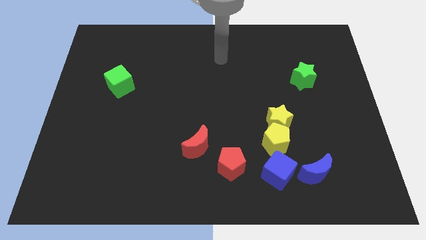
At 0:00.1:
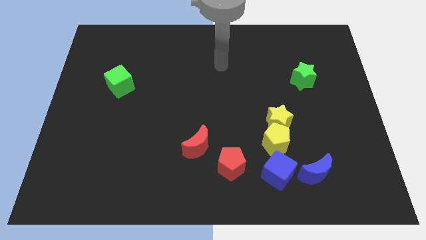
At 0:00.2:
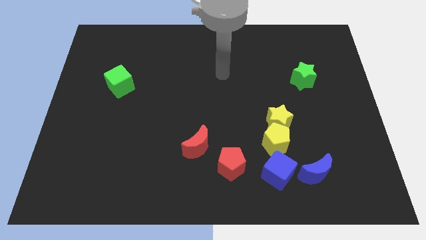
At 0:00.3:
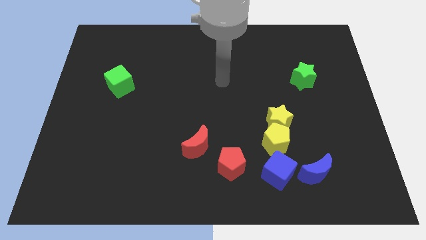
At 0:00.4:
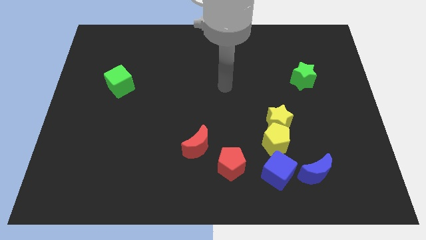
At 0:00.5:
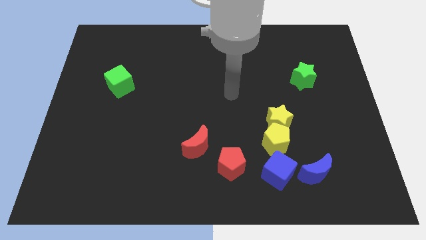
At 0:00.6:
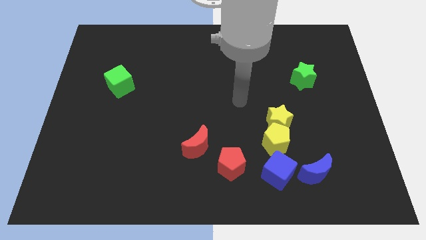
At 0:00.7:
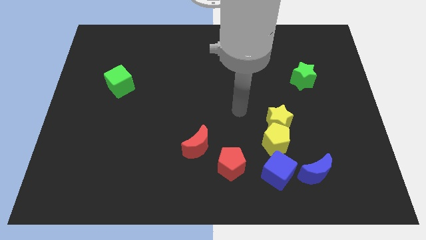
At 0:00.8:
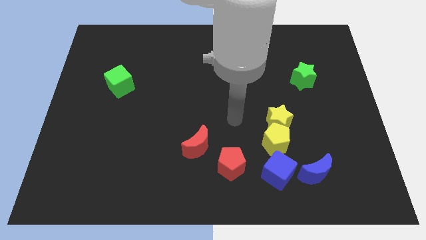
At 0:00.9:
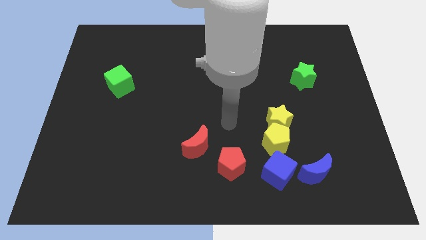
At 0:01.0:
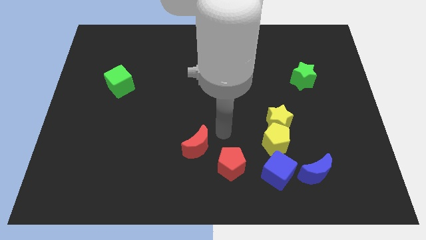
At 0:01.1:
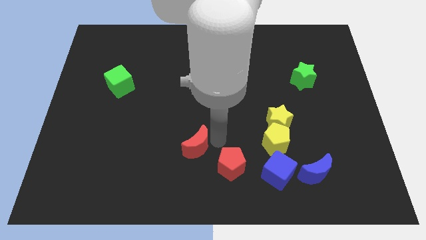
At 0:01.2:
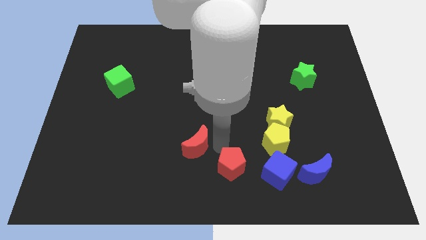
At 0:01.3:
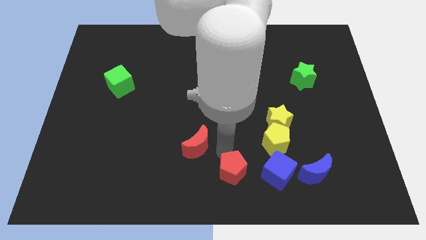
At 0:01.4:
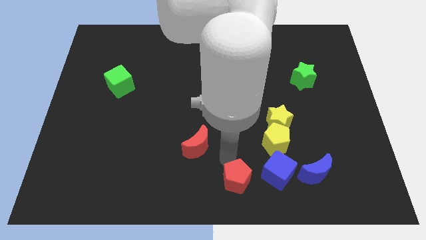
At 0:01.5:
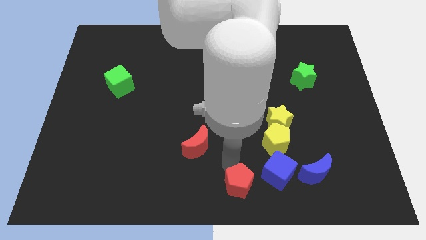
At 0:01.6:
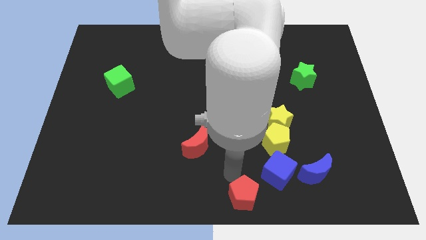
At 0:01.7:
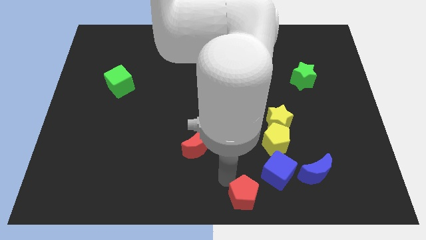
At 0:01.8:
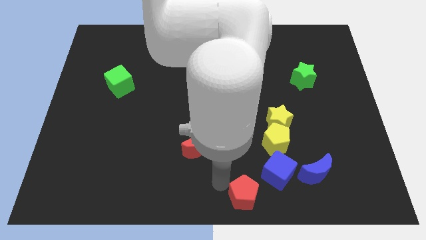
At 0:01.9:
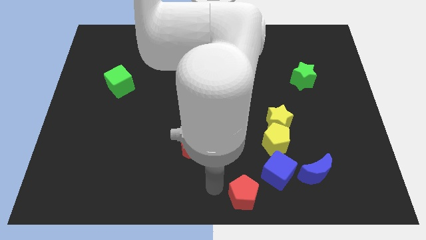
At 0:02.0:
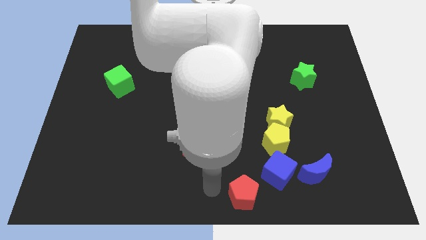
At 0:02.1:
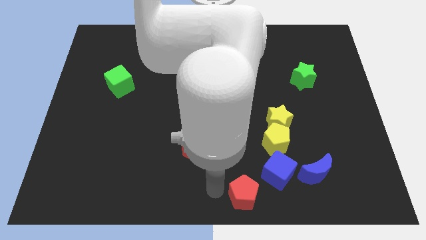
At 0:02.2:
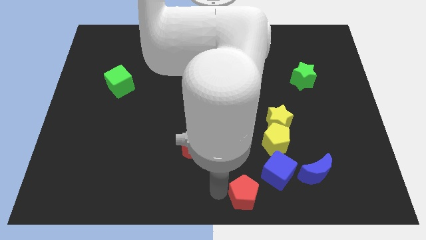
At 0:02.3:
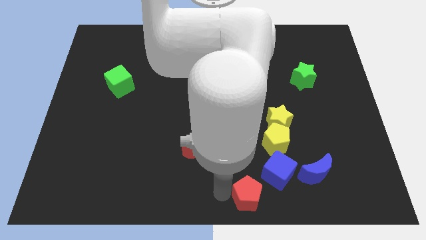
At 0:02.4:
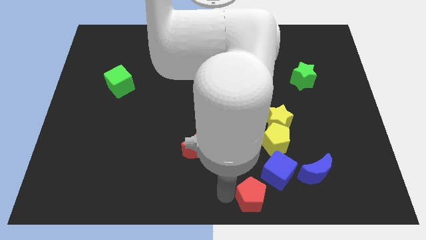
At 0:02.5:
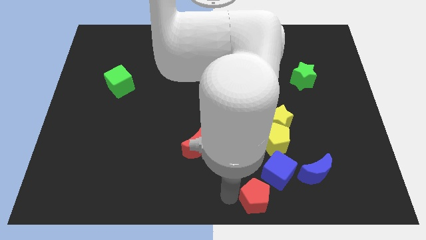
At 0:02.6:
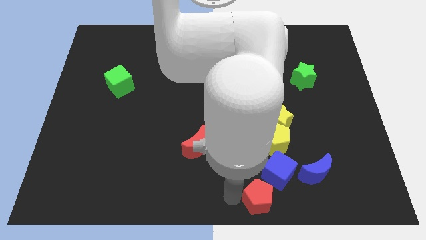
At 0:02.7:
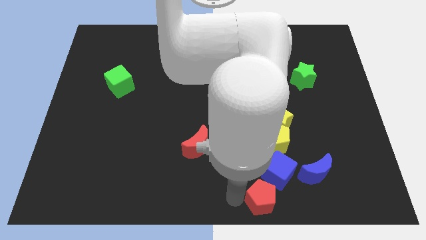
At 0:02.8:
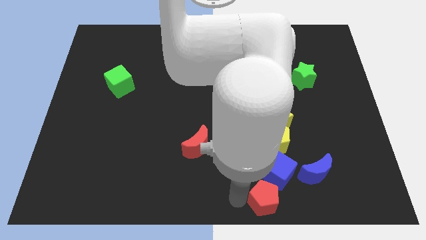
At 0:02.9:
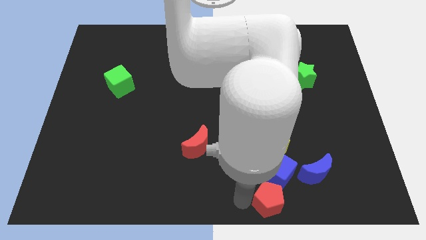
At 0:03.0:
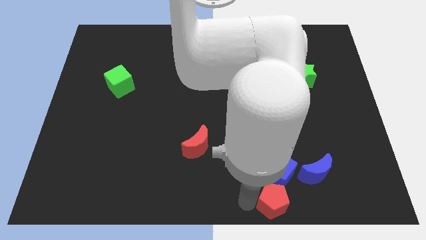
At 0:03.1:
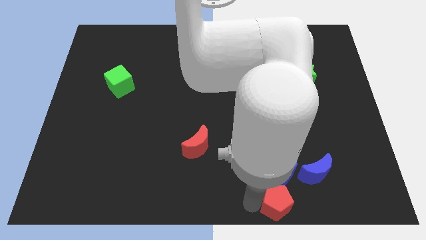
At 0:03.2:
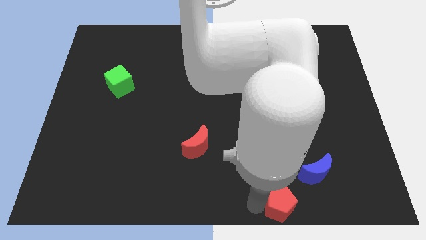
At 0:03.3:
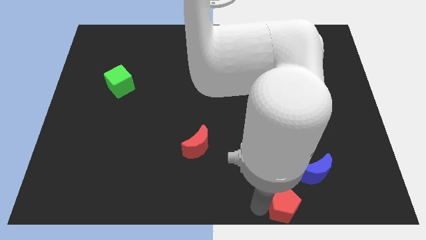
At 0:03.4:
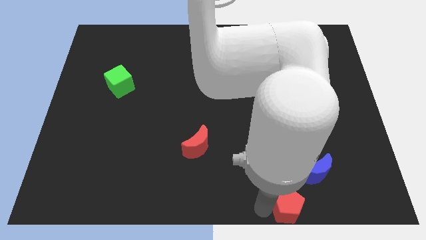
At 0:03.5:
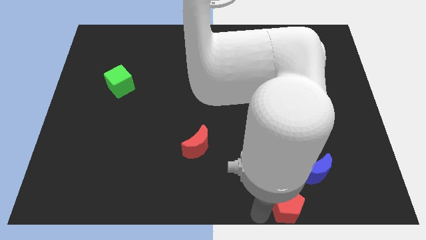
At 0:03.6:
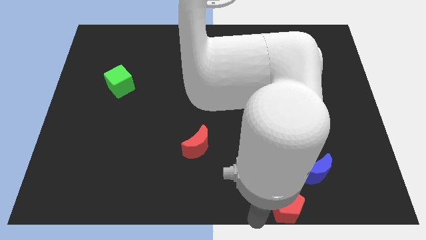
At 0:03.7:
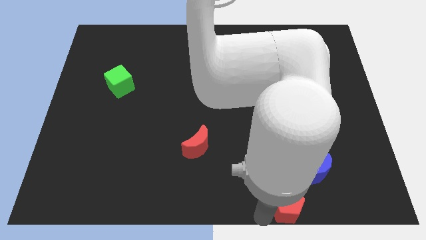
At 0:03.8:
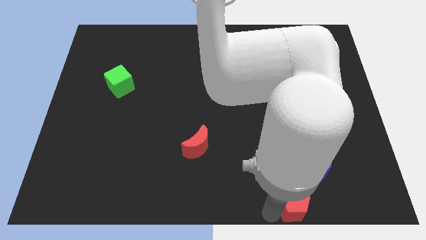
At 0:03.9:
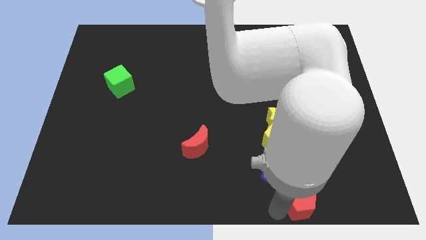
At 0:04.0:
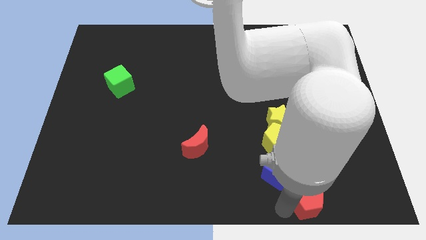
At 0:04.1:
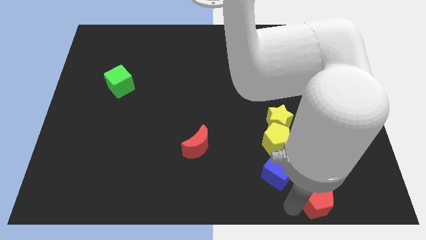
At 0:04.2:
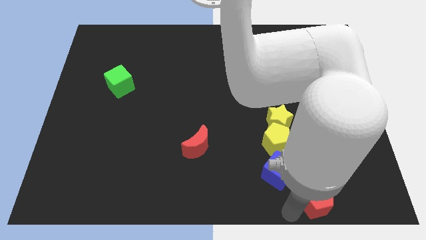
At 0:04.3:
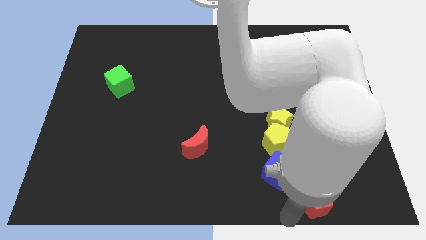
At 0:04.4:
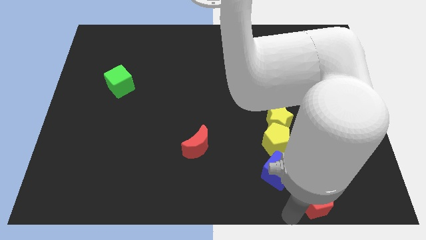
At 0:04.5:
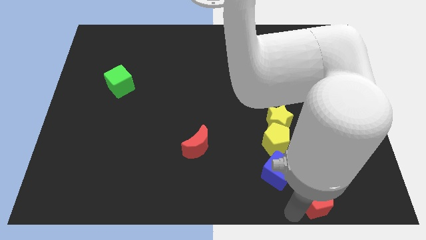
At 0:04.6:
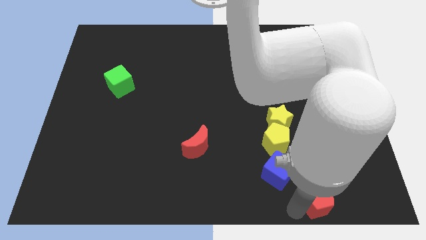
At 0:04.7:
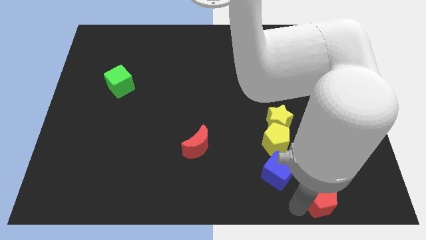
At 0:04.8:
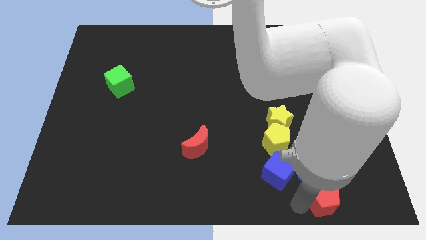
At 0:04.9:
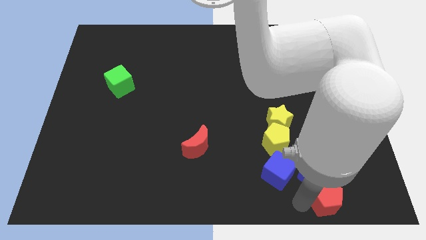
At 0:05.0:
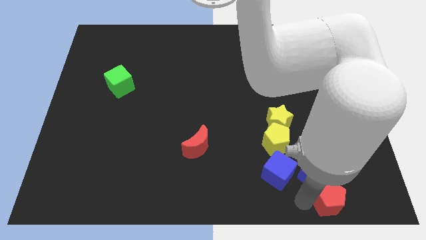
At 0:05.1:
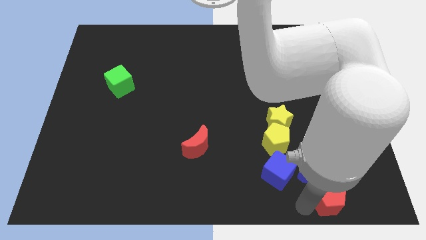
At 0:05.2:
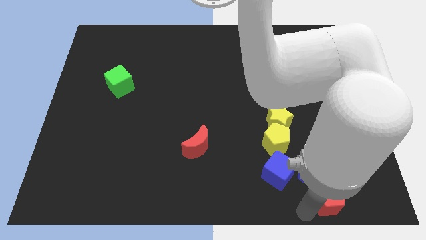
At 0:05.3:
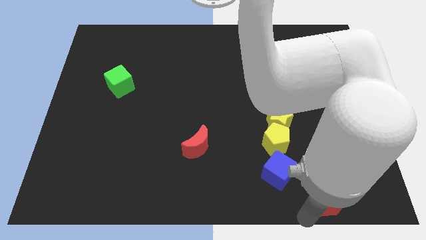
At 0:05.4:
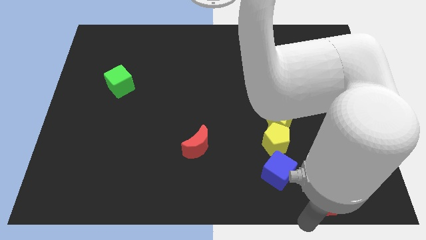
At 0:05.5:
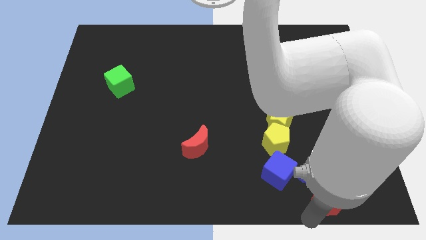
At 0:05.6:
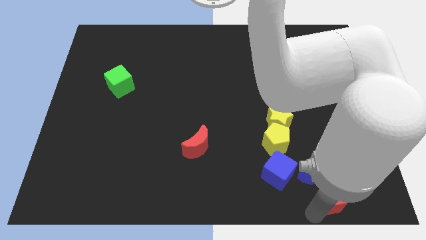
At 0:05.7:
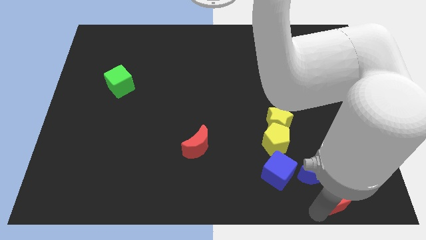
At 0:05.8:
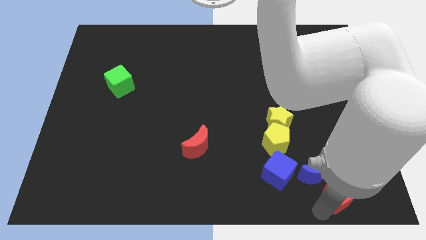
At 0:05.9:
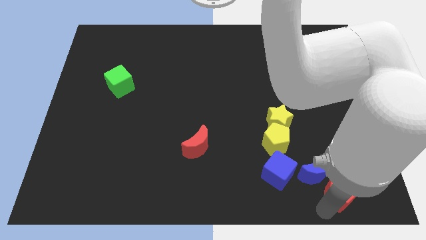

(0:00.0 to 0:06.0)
slide the red pentagon to the right of the blue cube

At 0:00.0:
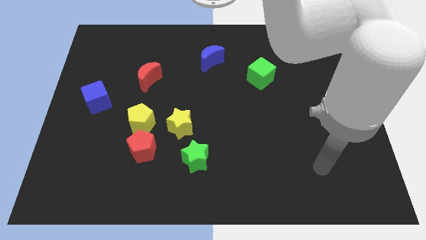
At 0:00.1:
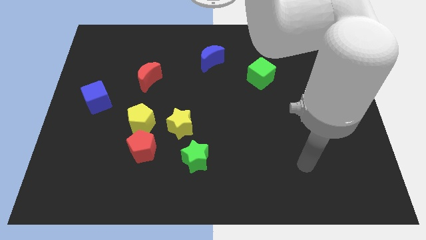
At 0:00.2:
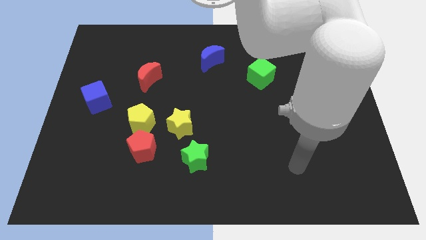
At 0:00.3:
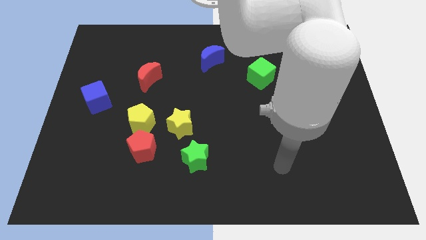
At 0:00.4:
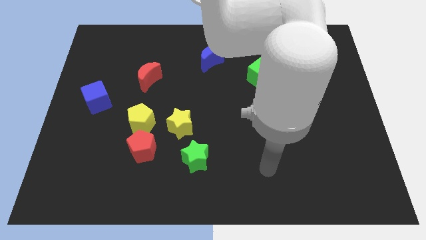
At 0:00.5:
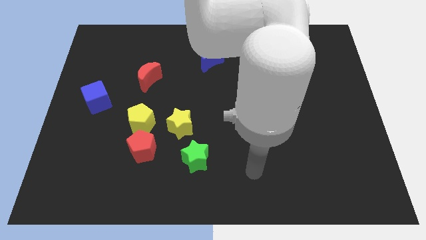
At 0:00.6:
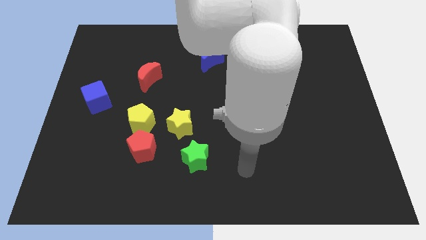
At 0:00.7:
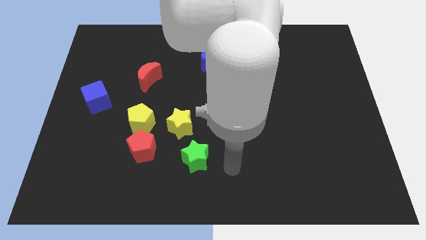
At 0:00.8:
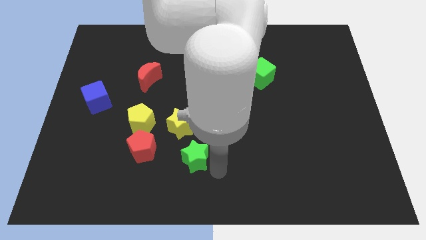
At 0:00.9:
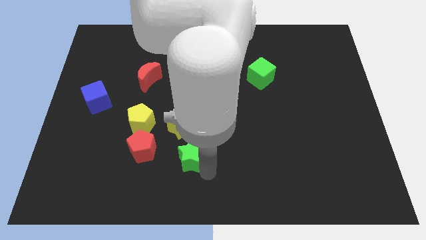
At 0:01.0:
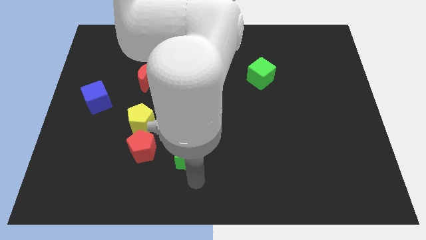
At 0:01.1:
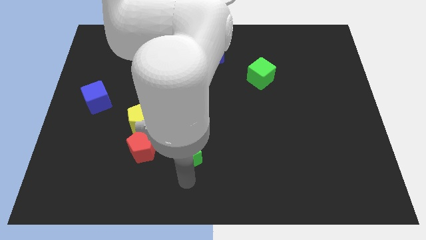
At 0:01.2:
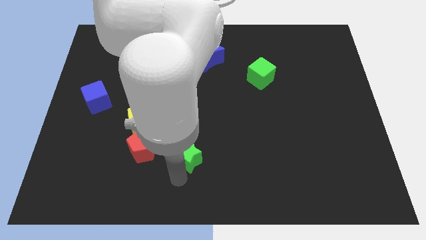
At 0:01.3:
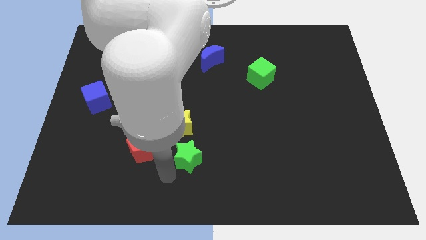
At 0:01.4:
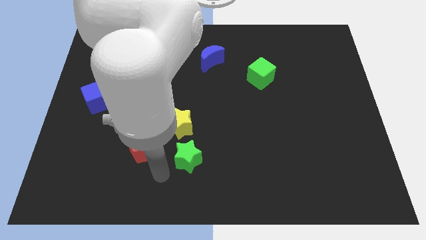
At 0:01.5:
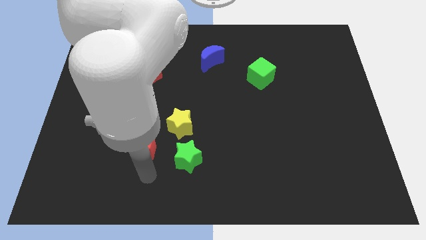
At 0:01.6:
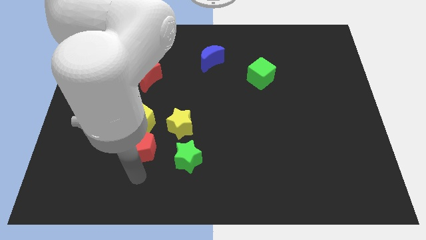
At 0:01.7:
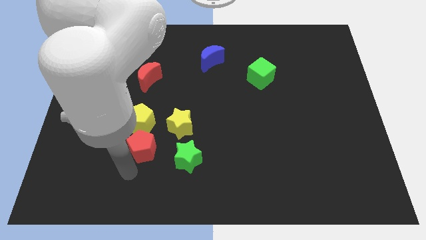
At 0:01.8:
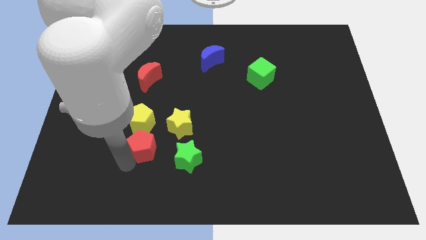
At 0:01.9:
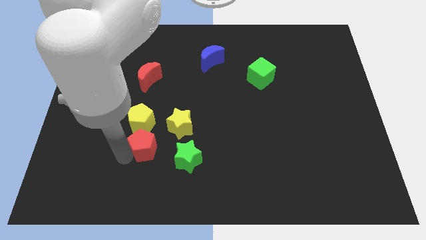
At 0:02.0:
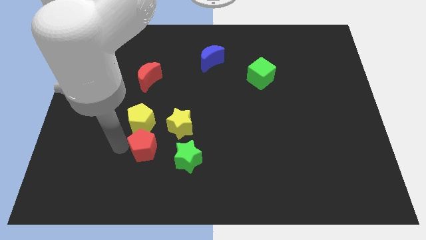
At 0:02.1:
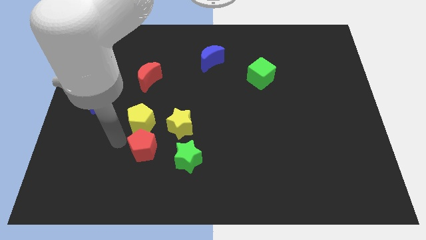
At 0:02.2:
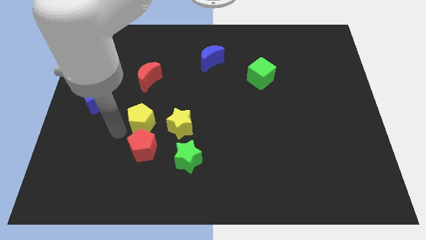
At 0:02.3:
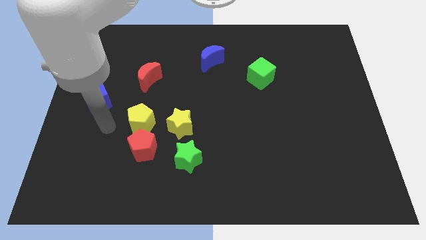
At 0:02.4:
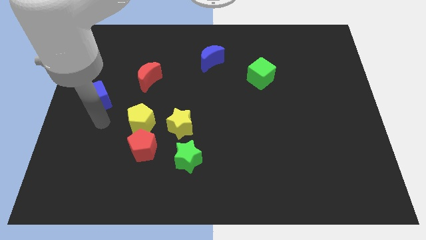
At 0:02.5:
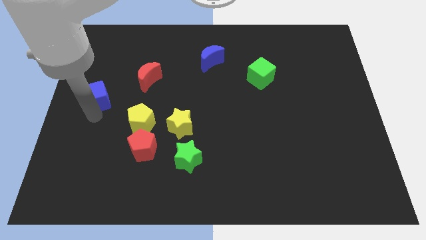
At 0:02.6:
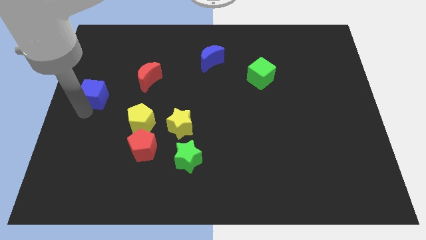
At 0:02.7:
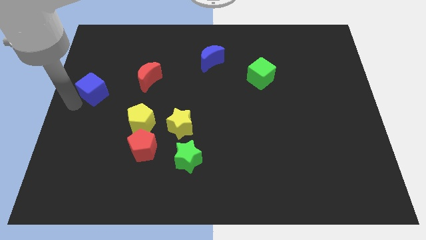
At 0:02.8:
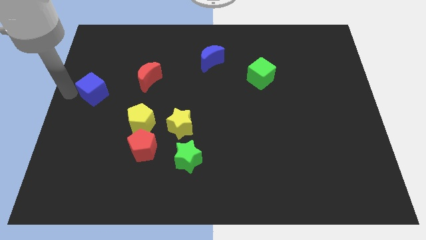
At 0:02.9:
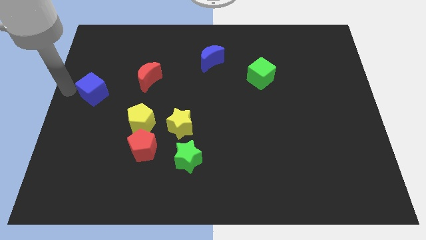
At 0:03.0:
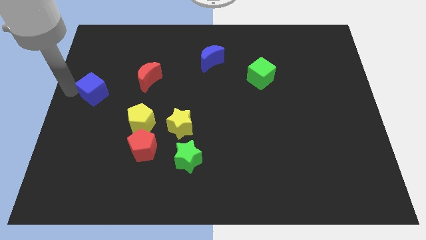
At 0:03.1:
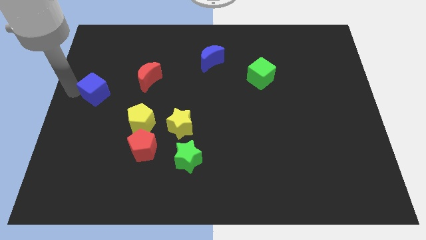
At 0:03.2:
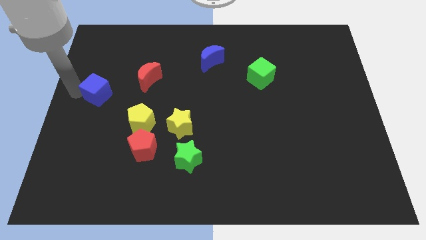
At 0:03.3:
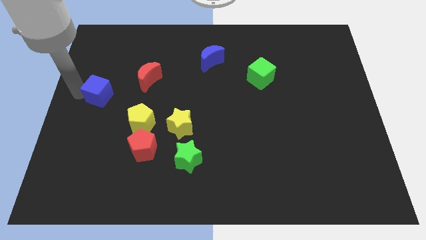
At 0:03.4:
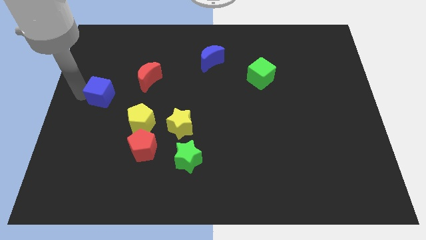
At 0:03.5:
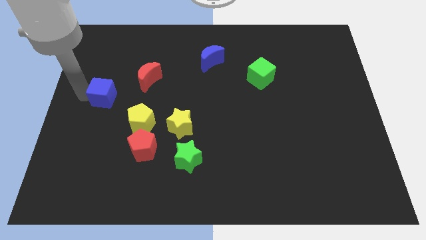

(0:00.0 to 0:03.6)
push the blue cube to the bottom left of the red moon
